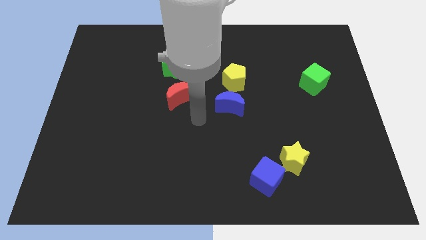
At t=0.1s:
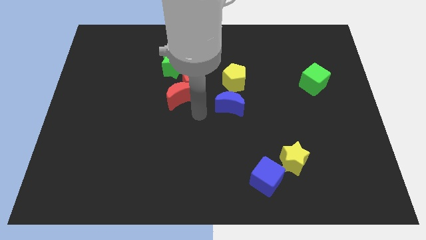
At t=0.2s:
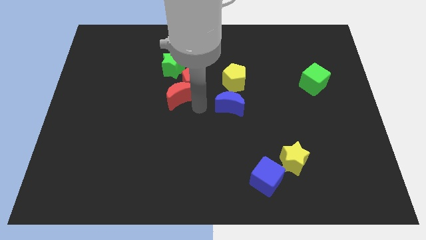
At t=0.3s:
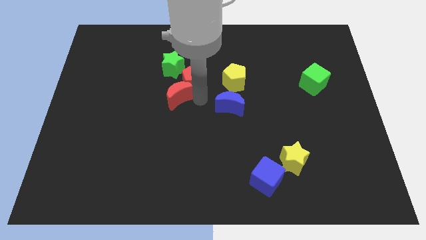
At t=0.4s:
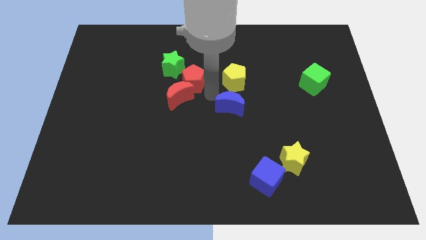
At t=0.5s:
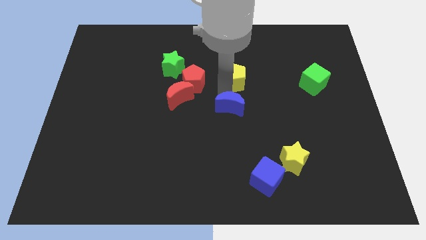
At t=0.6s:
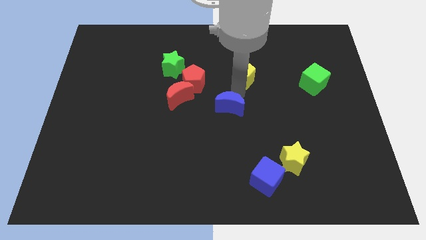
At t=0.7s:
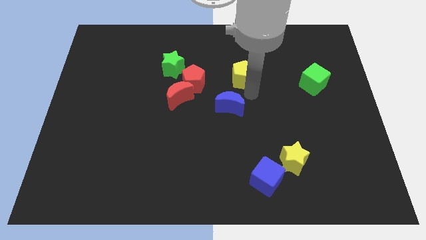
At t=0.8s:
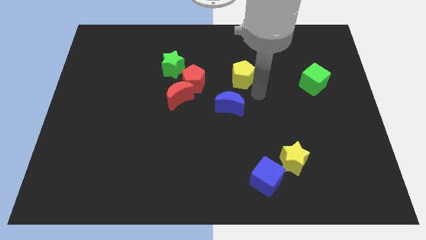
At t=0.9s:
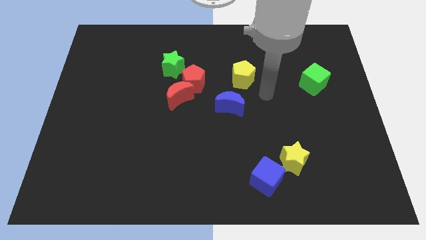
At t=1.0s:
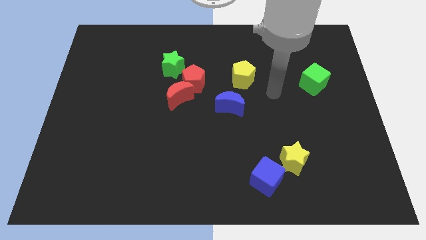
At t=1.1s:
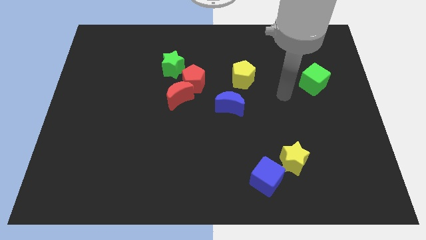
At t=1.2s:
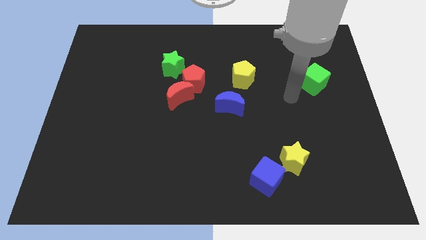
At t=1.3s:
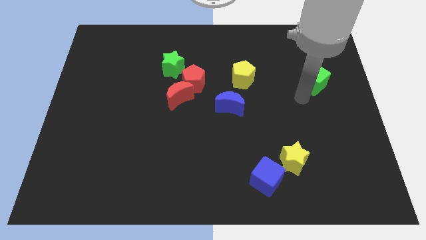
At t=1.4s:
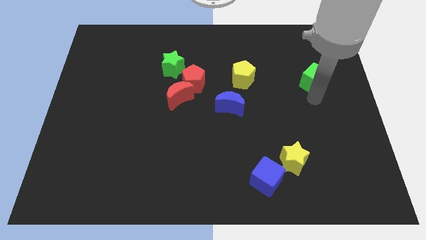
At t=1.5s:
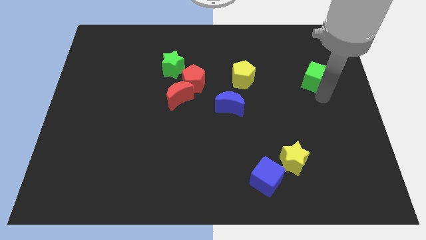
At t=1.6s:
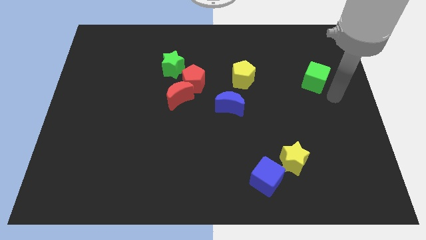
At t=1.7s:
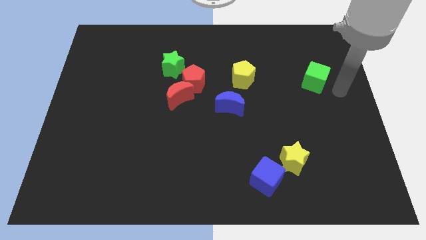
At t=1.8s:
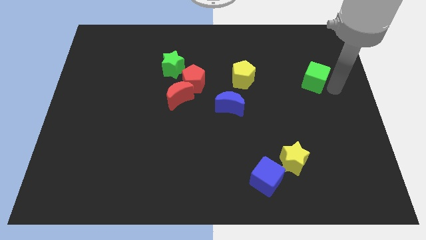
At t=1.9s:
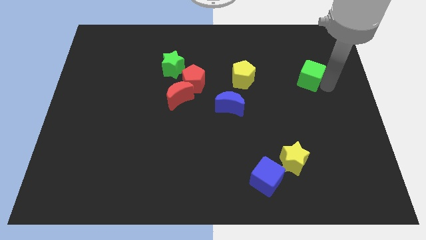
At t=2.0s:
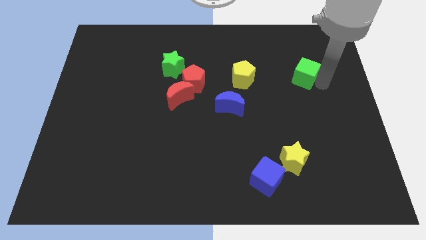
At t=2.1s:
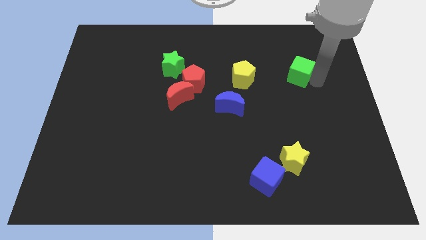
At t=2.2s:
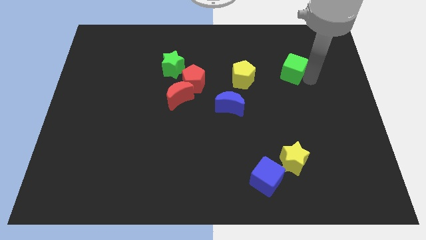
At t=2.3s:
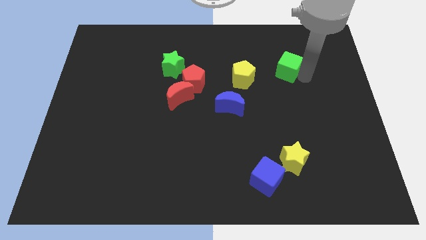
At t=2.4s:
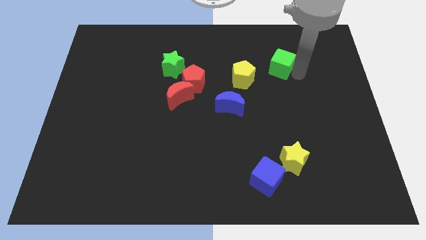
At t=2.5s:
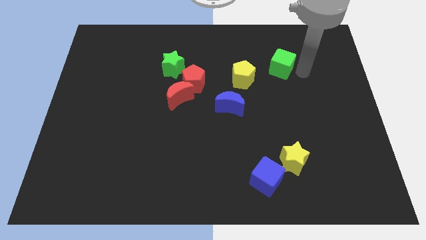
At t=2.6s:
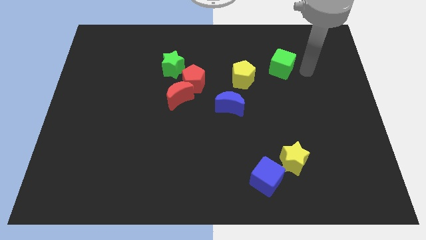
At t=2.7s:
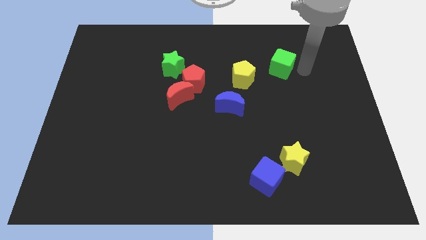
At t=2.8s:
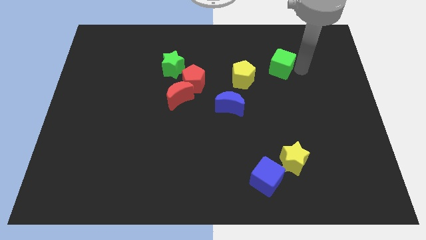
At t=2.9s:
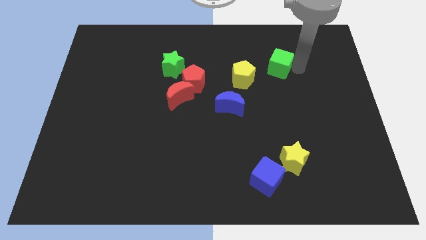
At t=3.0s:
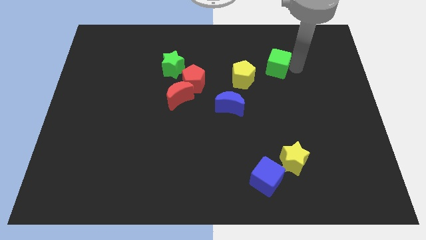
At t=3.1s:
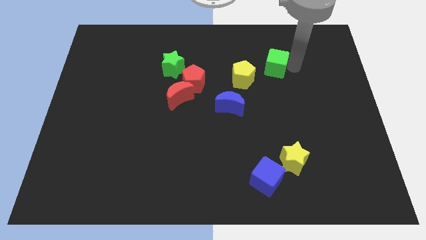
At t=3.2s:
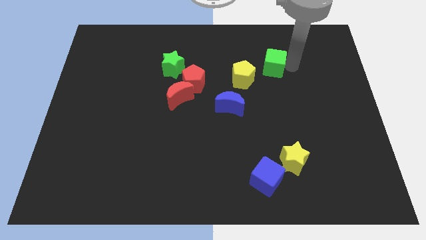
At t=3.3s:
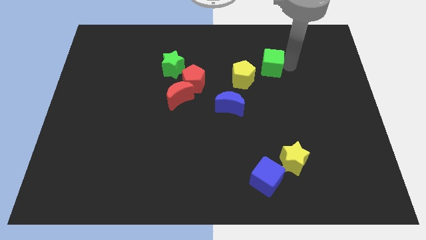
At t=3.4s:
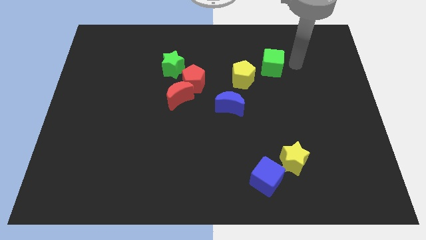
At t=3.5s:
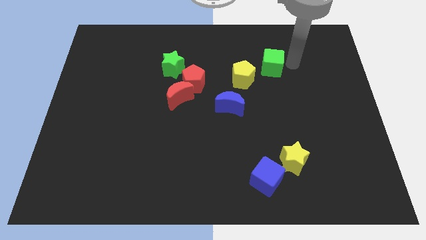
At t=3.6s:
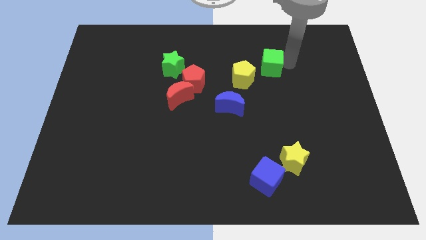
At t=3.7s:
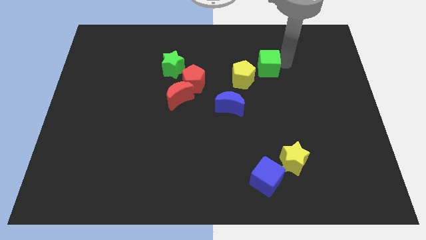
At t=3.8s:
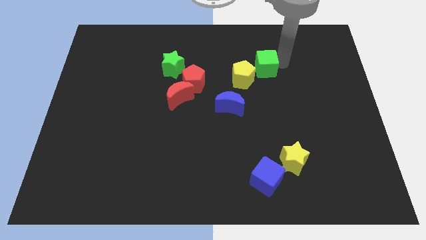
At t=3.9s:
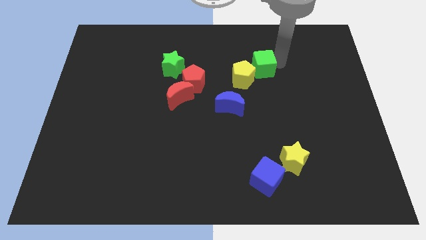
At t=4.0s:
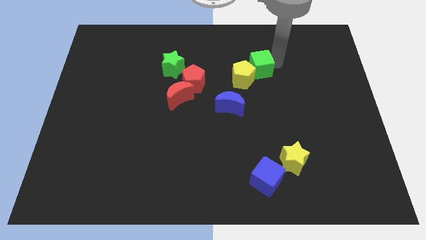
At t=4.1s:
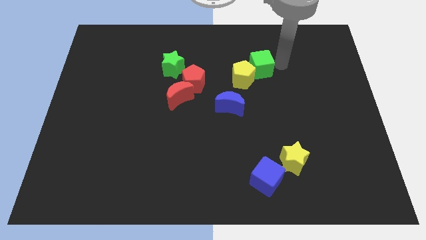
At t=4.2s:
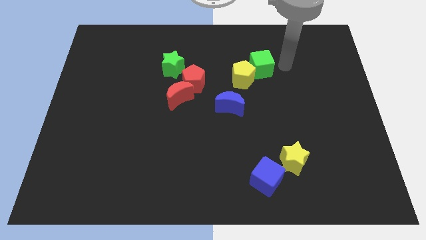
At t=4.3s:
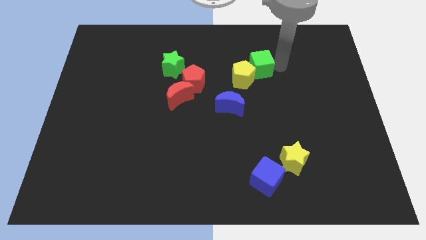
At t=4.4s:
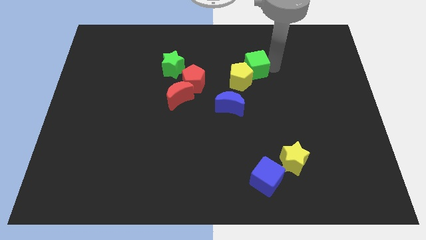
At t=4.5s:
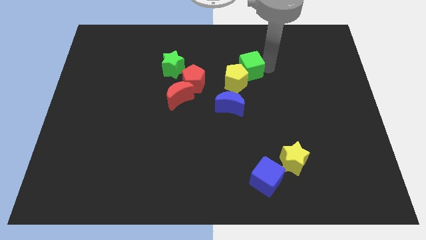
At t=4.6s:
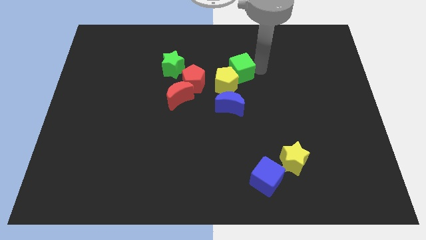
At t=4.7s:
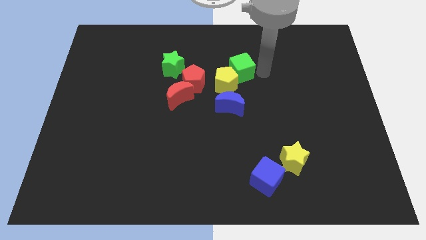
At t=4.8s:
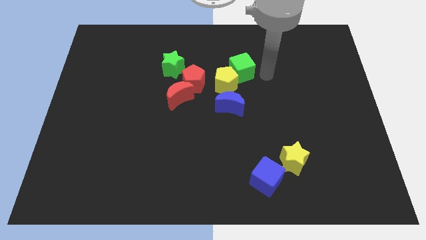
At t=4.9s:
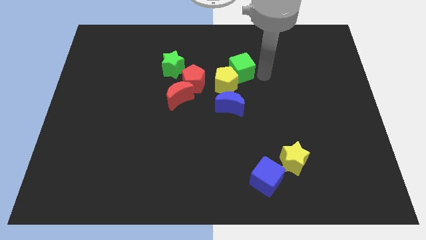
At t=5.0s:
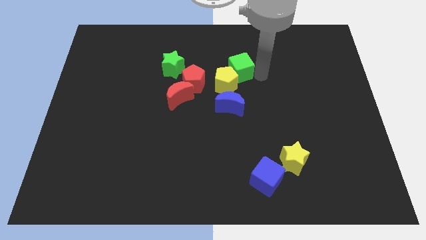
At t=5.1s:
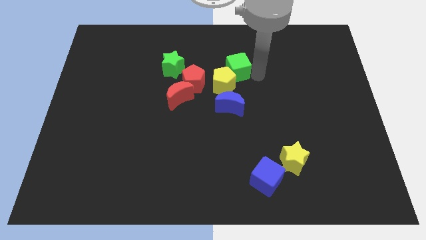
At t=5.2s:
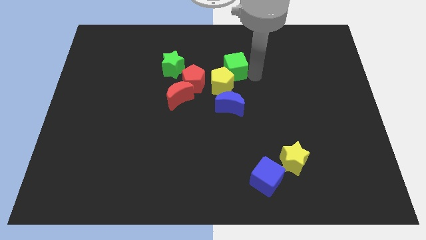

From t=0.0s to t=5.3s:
put the green cube to the top right side of the red pentagon

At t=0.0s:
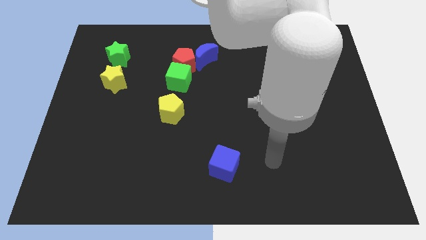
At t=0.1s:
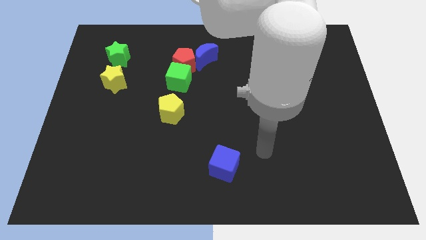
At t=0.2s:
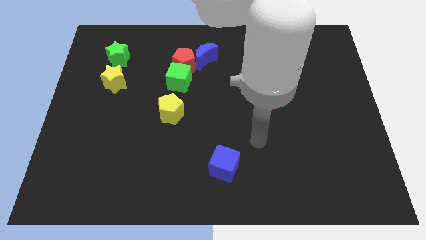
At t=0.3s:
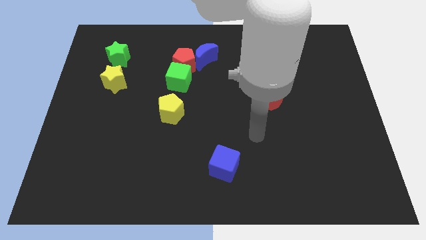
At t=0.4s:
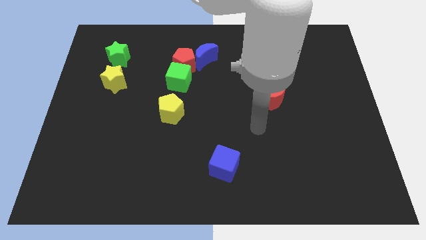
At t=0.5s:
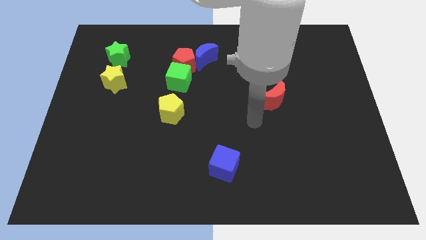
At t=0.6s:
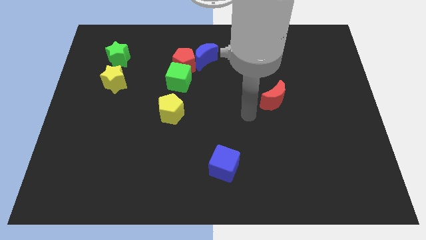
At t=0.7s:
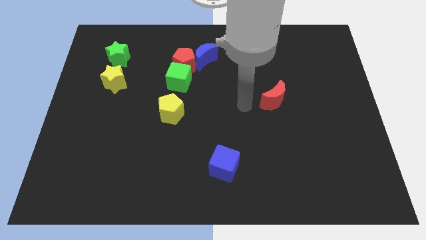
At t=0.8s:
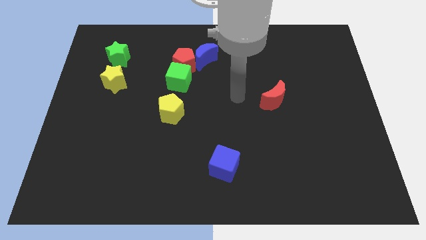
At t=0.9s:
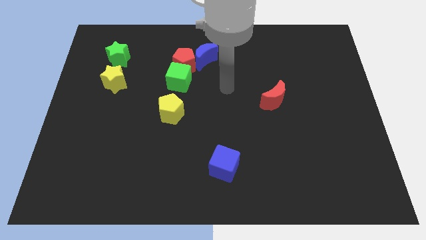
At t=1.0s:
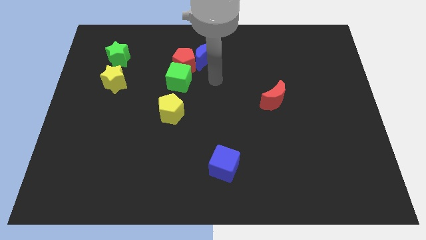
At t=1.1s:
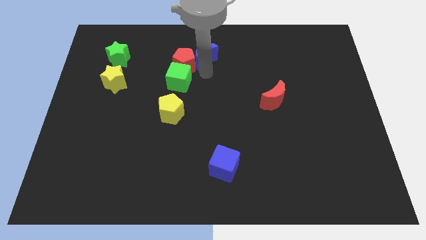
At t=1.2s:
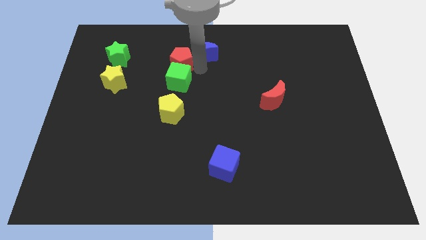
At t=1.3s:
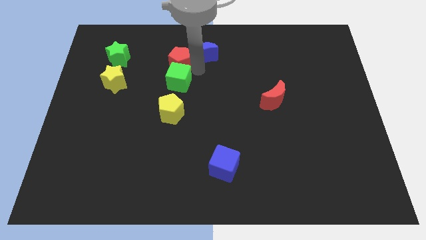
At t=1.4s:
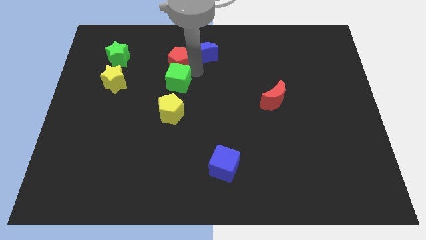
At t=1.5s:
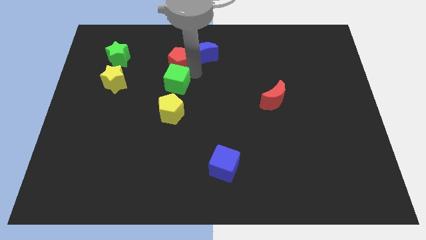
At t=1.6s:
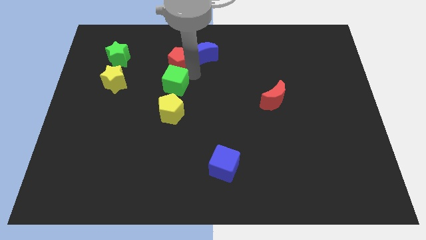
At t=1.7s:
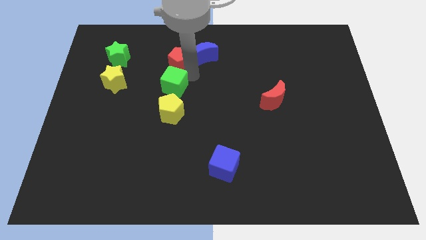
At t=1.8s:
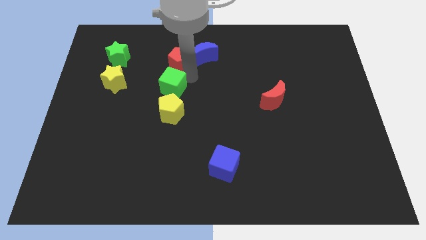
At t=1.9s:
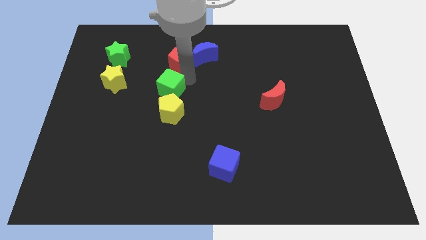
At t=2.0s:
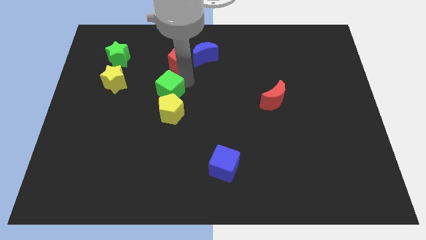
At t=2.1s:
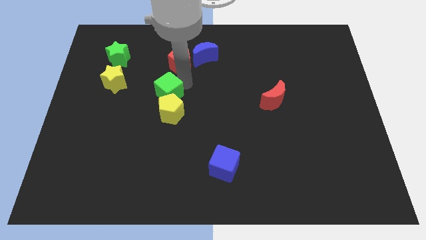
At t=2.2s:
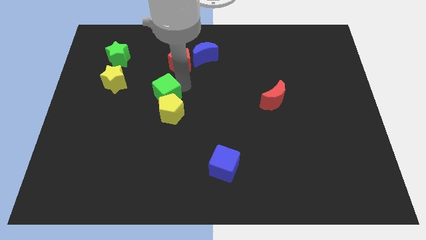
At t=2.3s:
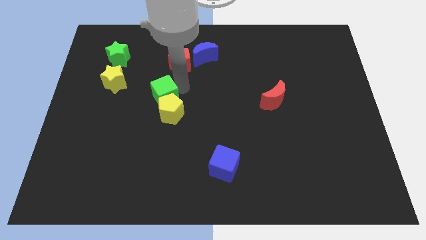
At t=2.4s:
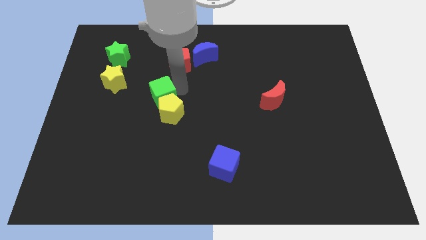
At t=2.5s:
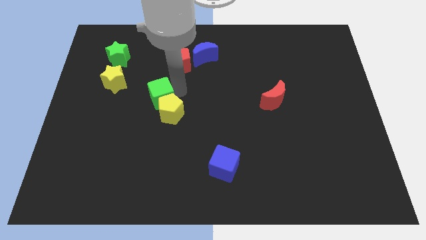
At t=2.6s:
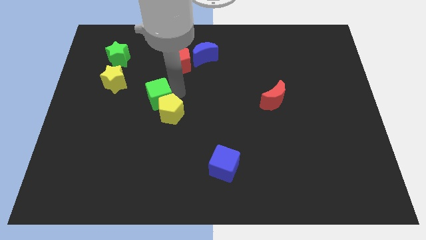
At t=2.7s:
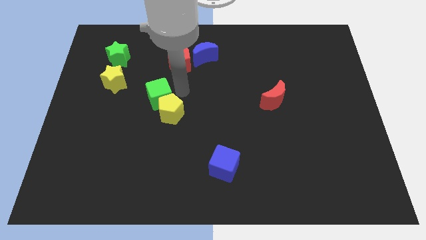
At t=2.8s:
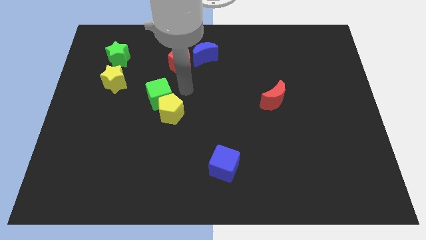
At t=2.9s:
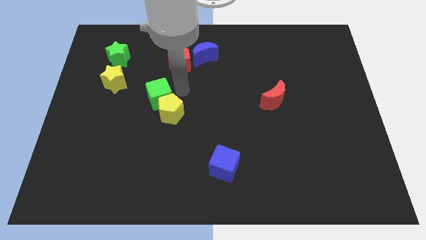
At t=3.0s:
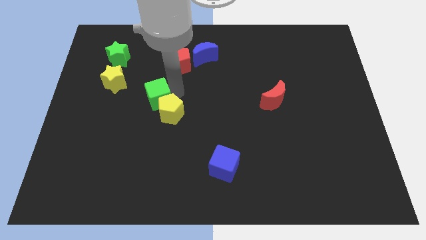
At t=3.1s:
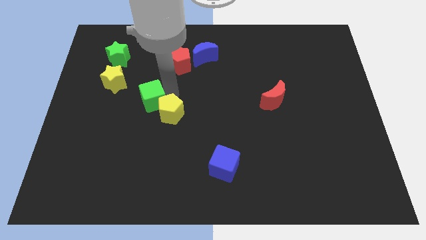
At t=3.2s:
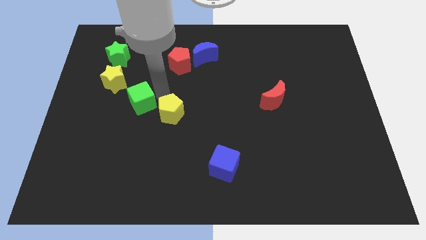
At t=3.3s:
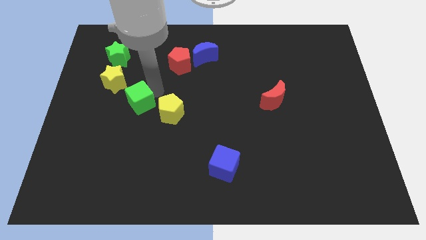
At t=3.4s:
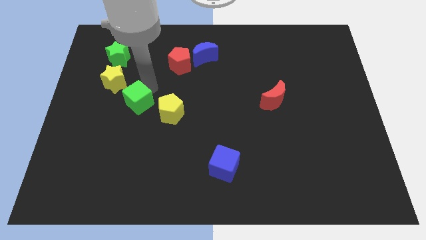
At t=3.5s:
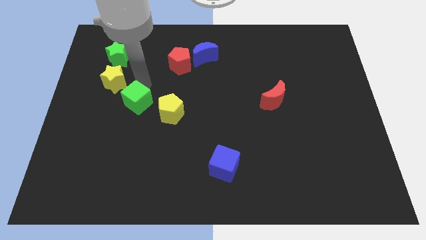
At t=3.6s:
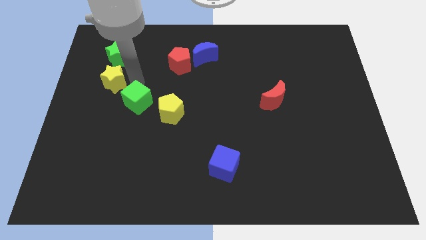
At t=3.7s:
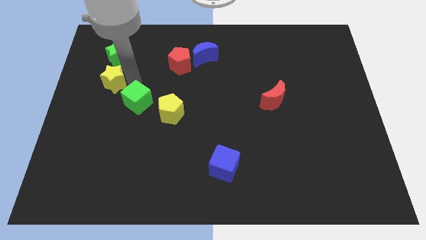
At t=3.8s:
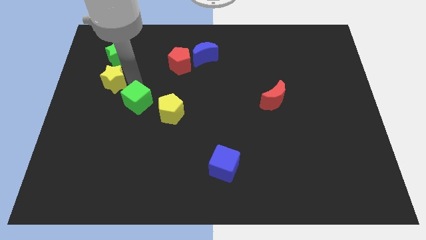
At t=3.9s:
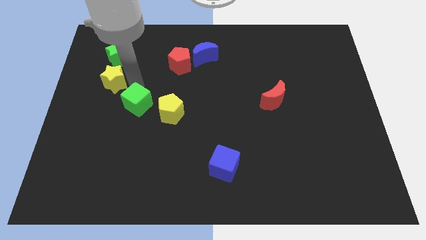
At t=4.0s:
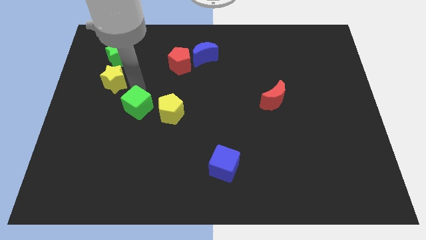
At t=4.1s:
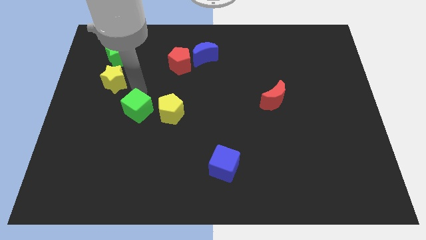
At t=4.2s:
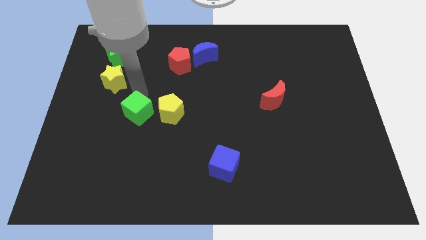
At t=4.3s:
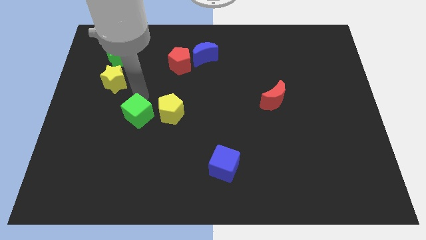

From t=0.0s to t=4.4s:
move the green cube to the bottom left of the yellow pentagon
